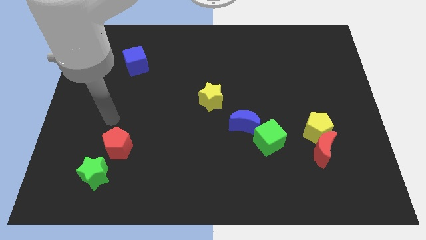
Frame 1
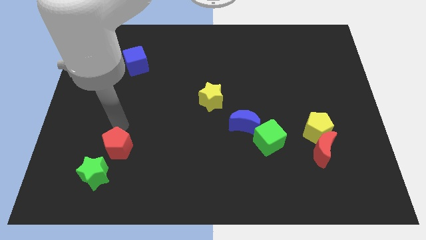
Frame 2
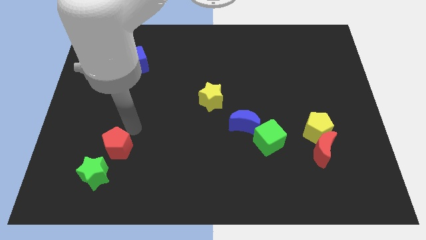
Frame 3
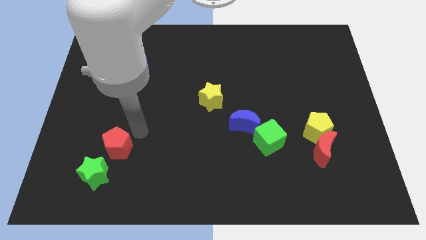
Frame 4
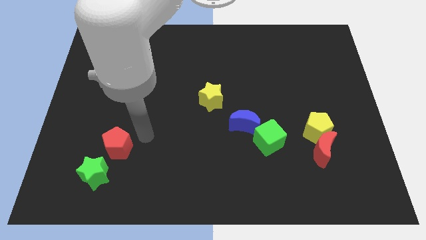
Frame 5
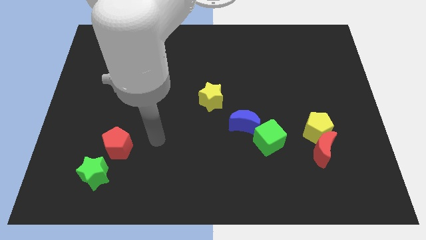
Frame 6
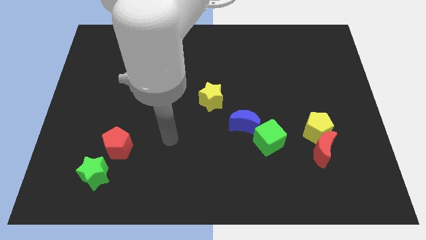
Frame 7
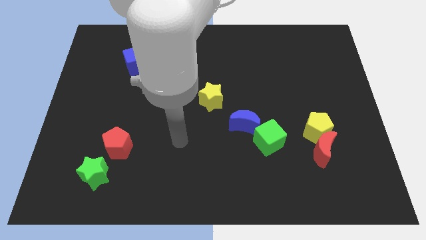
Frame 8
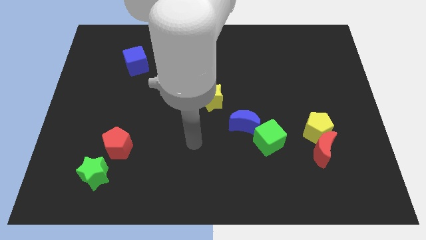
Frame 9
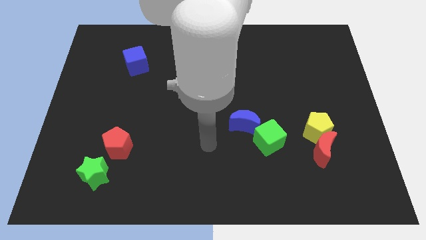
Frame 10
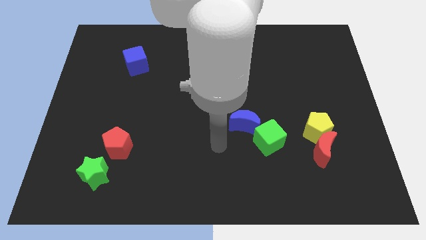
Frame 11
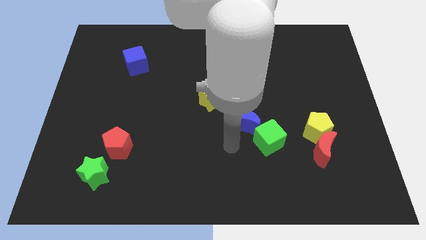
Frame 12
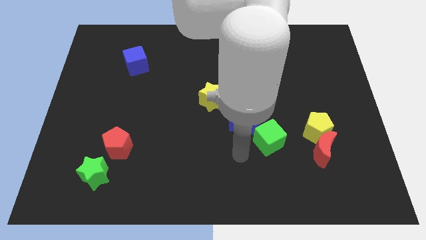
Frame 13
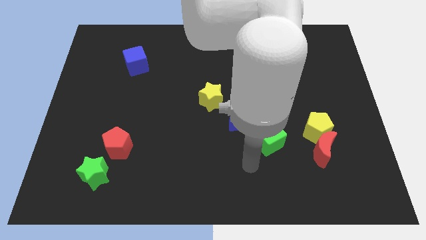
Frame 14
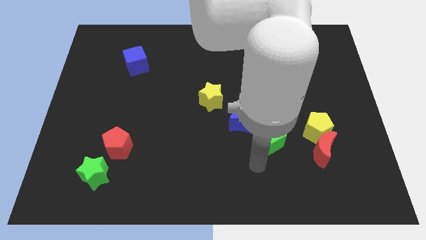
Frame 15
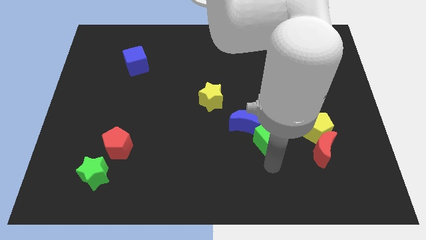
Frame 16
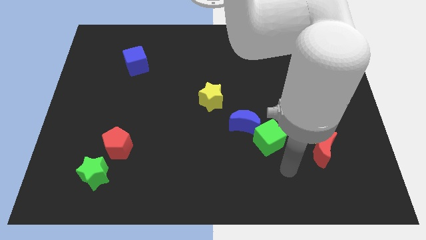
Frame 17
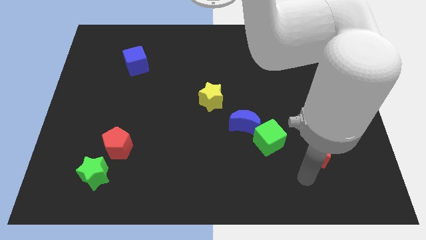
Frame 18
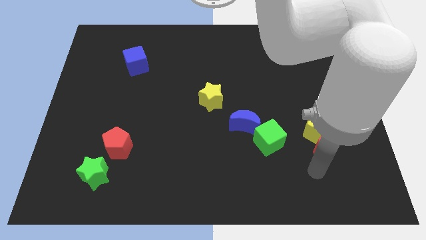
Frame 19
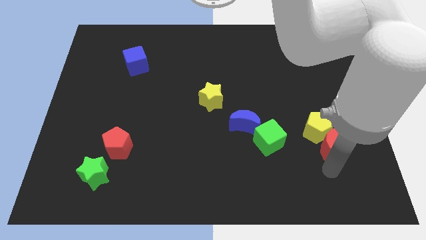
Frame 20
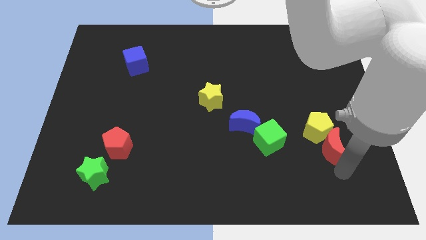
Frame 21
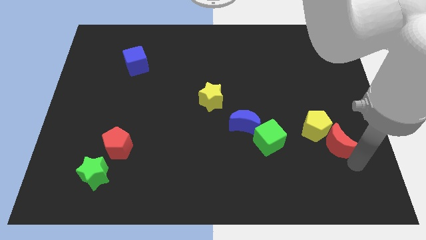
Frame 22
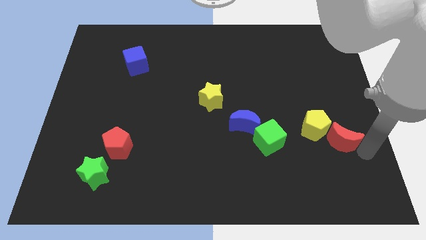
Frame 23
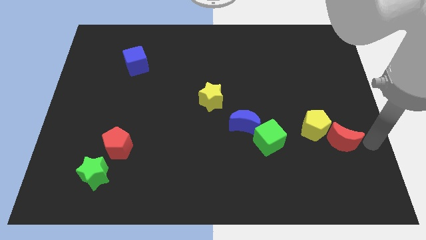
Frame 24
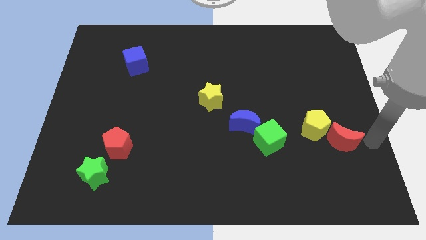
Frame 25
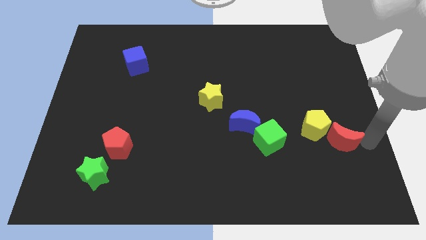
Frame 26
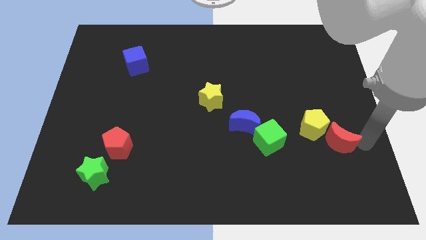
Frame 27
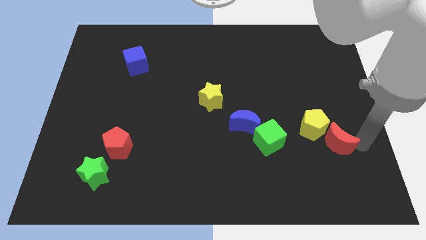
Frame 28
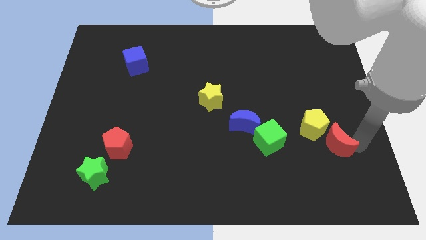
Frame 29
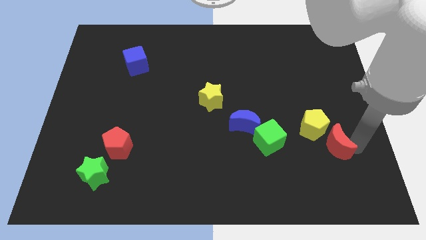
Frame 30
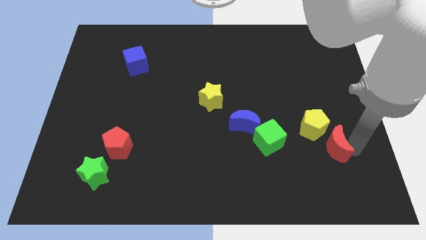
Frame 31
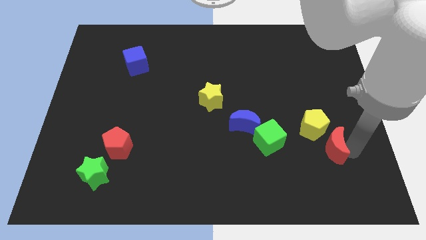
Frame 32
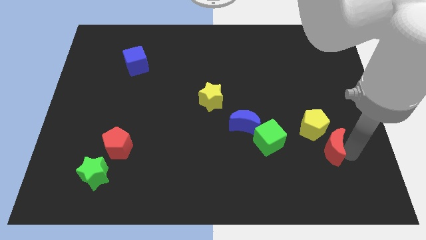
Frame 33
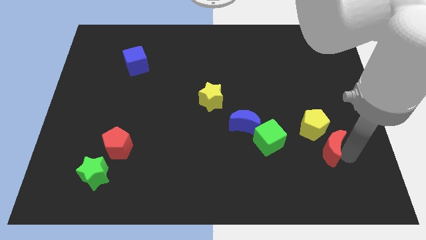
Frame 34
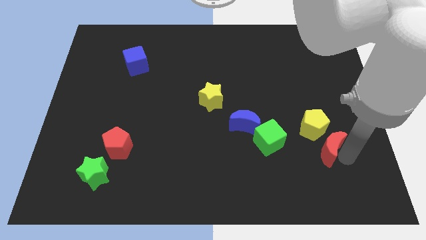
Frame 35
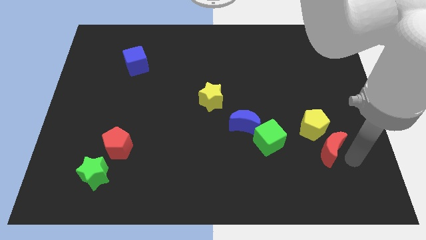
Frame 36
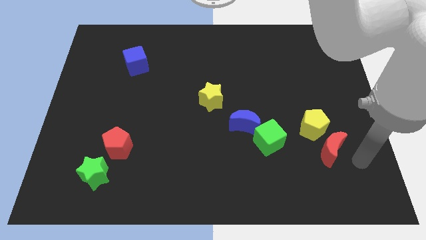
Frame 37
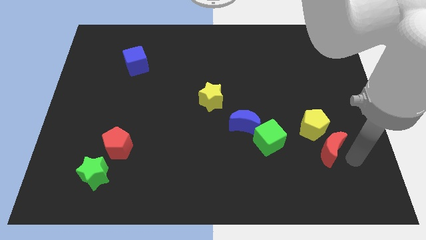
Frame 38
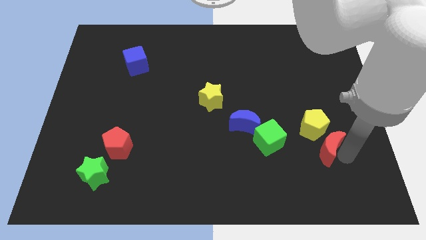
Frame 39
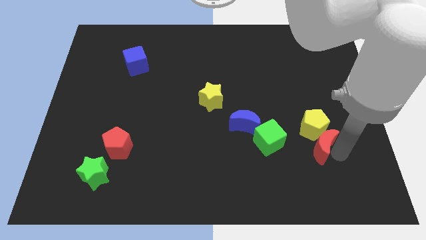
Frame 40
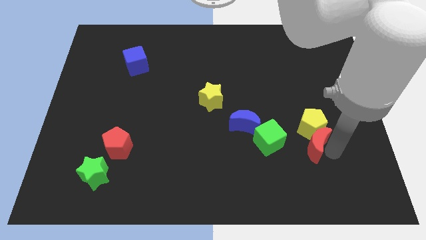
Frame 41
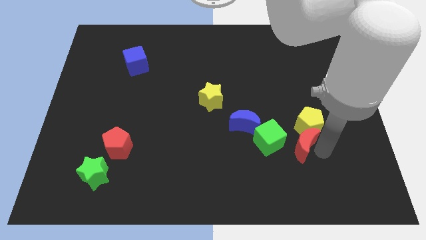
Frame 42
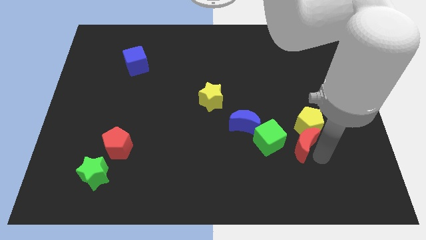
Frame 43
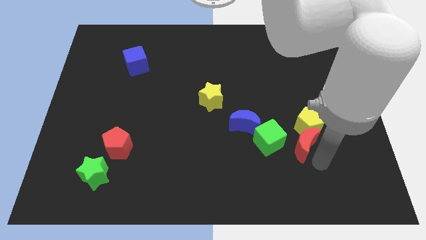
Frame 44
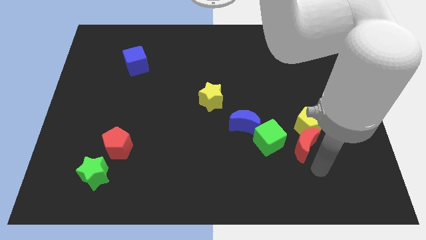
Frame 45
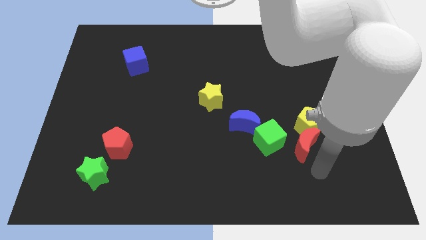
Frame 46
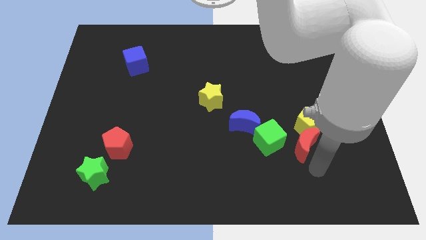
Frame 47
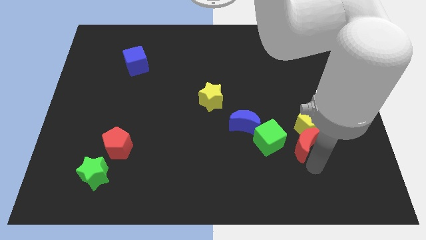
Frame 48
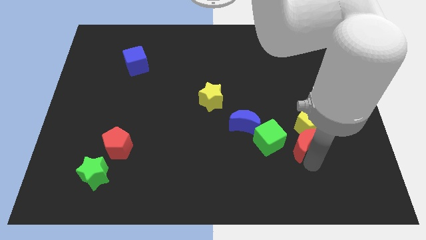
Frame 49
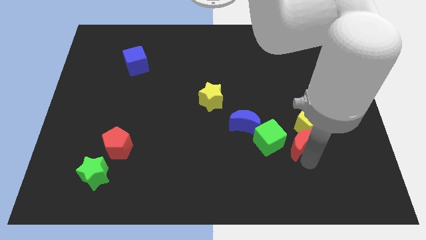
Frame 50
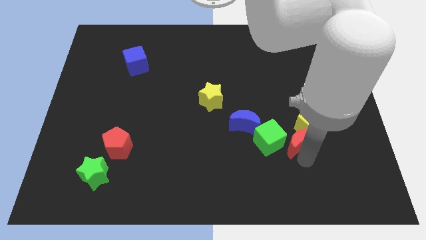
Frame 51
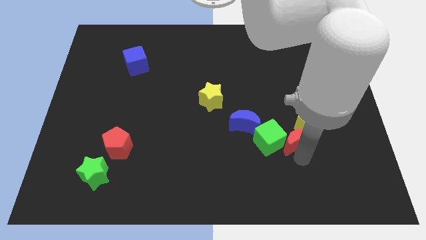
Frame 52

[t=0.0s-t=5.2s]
put the red moon diagonally up and to the right of the green cube

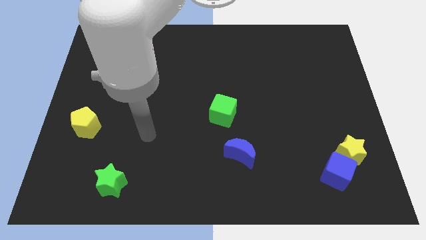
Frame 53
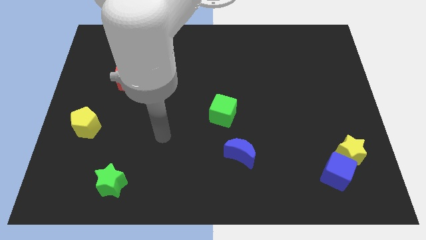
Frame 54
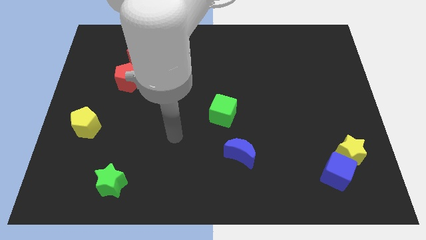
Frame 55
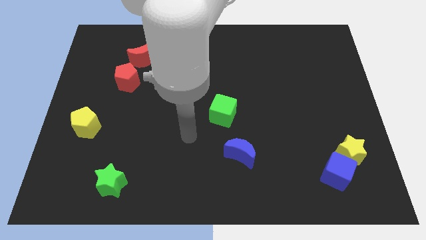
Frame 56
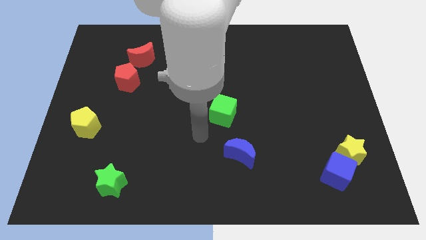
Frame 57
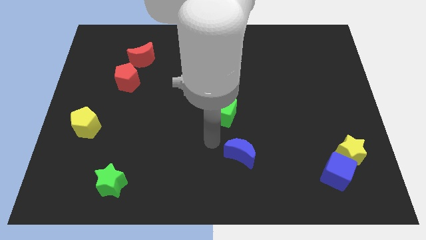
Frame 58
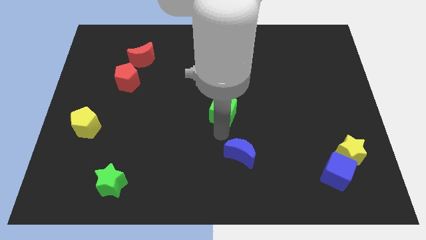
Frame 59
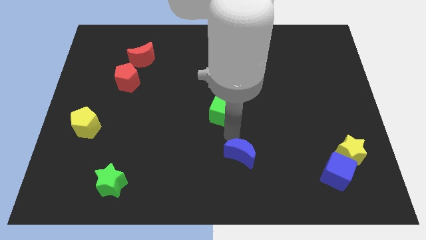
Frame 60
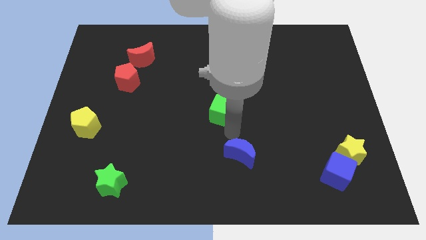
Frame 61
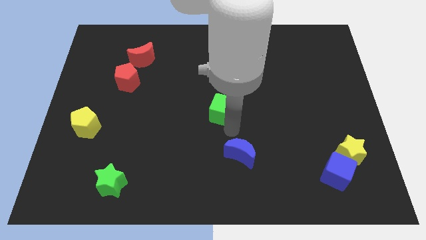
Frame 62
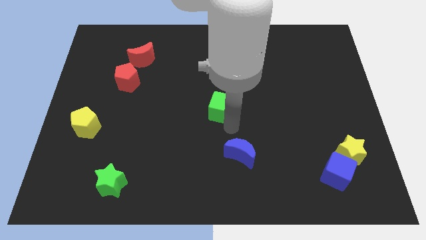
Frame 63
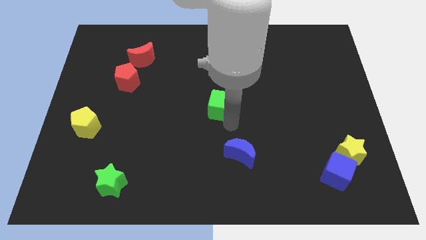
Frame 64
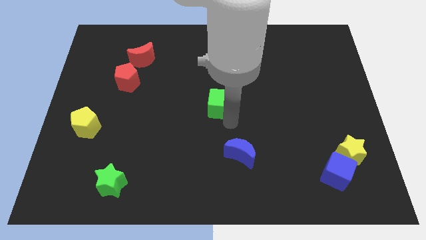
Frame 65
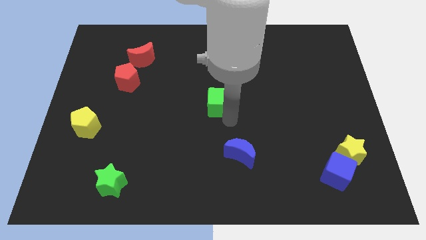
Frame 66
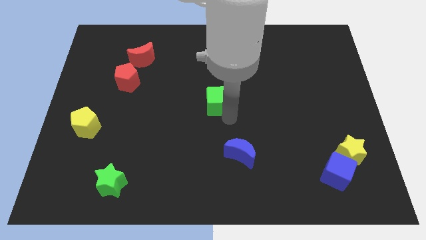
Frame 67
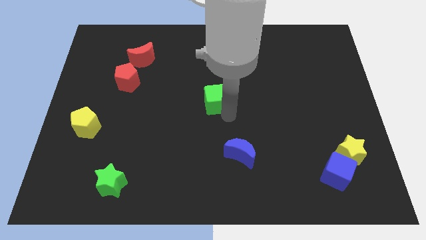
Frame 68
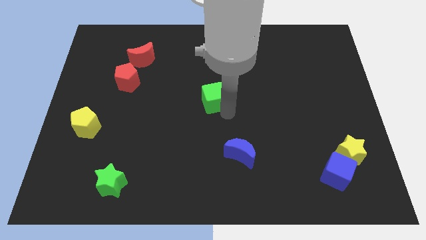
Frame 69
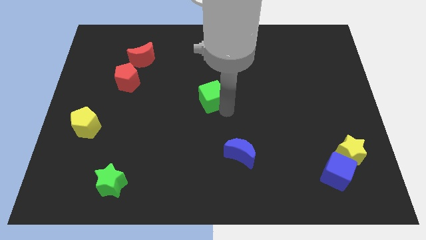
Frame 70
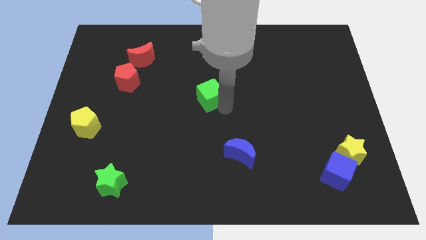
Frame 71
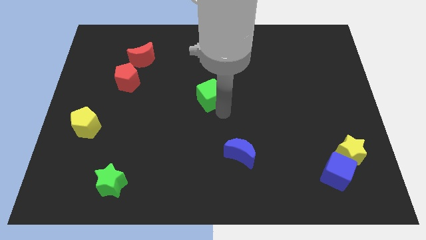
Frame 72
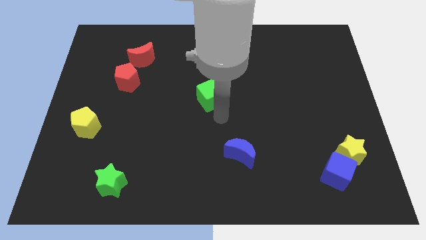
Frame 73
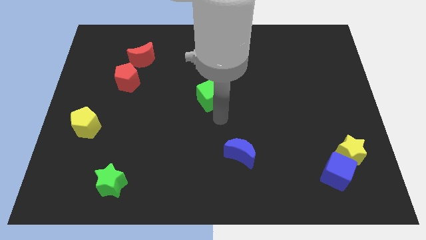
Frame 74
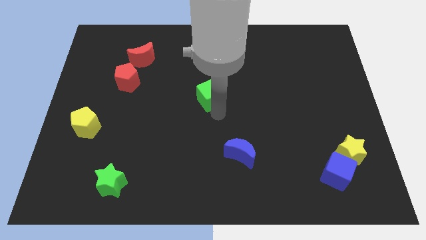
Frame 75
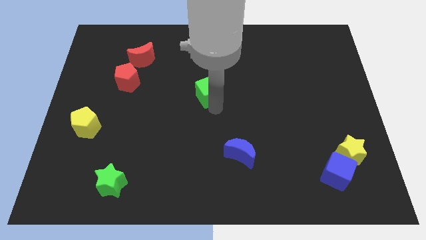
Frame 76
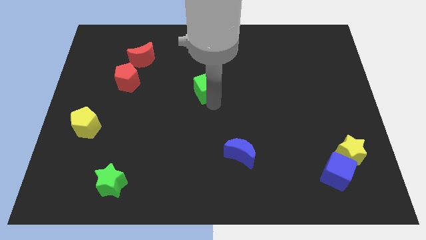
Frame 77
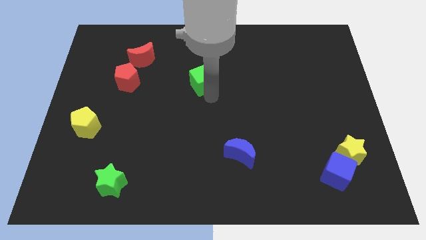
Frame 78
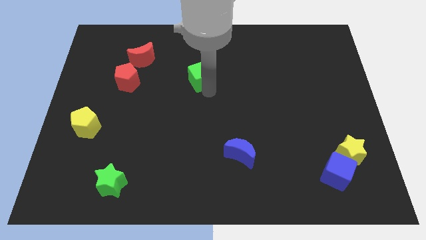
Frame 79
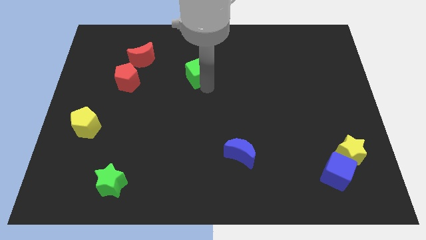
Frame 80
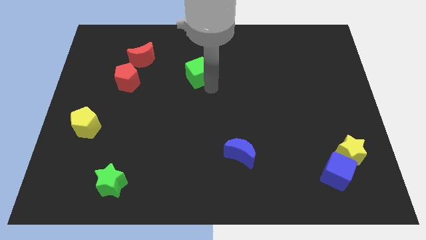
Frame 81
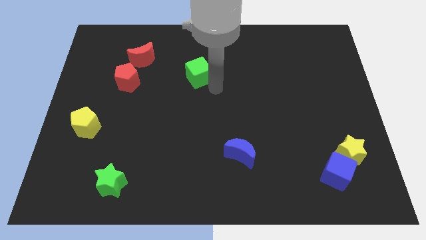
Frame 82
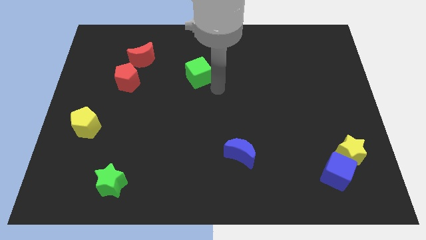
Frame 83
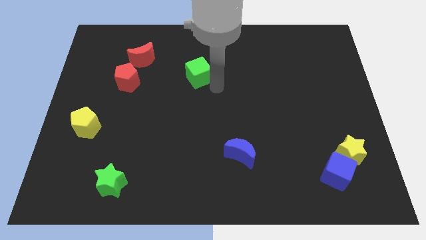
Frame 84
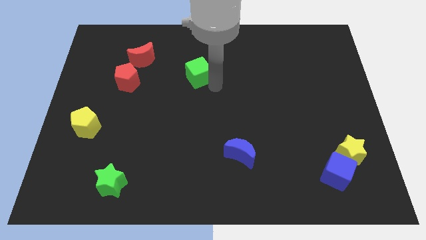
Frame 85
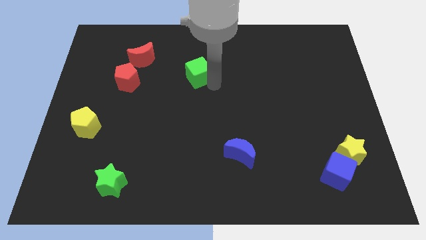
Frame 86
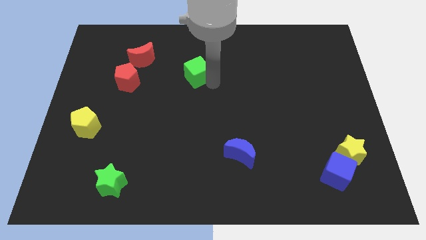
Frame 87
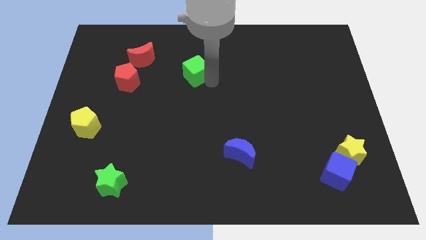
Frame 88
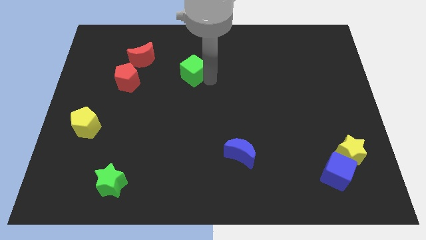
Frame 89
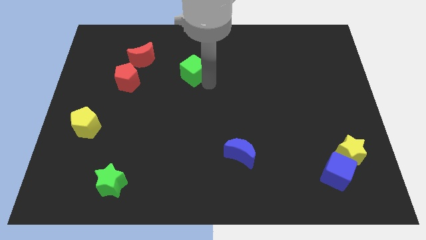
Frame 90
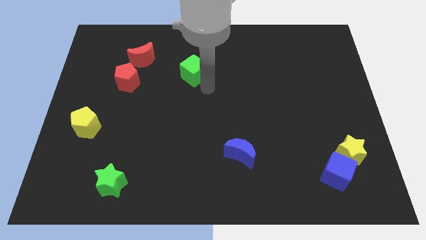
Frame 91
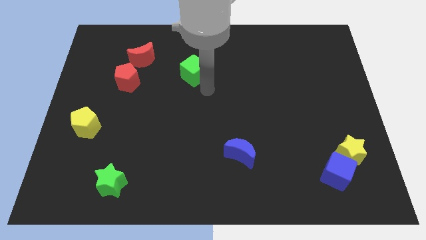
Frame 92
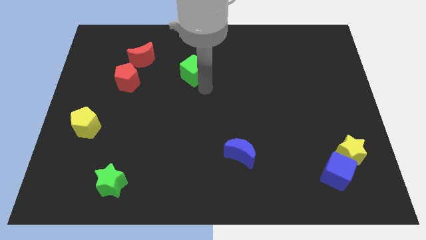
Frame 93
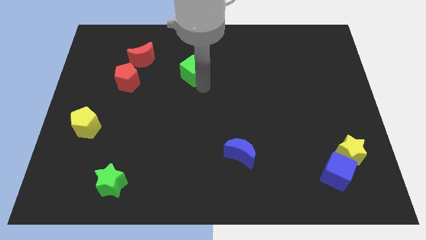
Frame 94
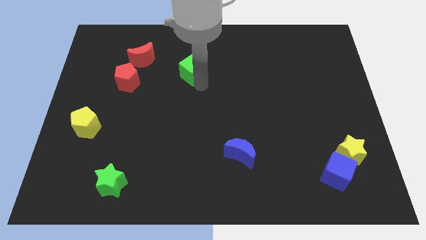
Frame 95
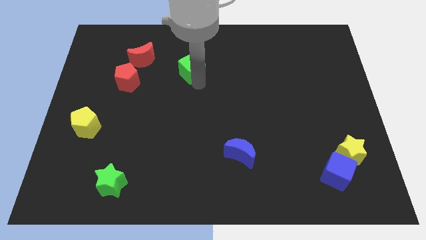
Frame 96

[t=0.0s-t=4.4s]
move the green cube to the right side of the red moon
